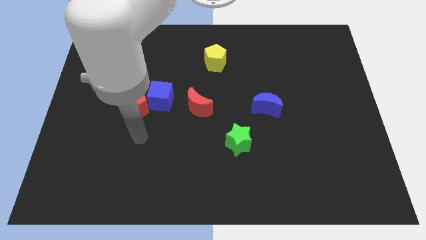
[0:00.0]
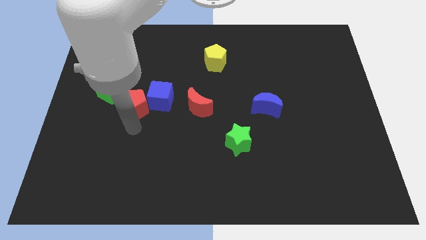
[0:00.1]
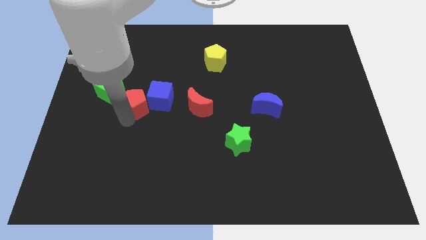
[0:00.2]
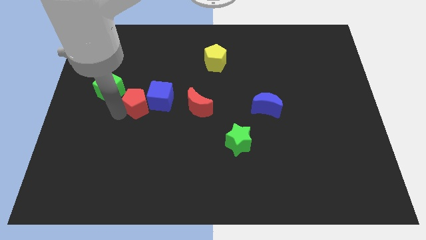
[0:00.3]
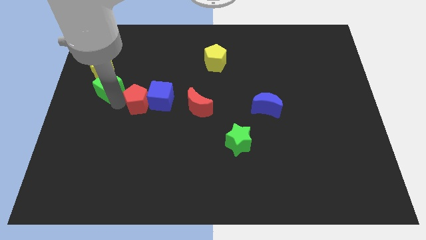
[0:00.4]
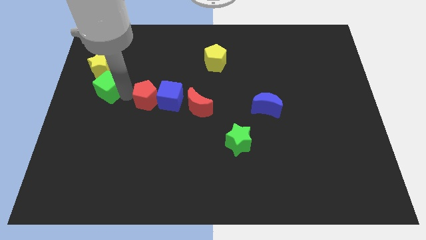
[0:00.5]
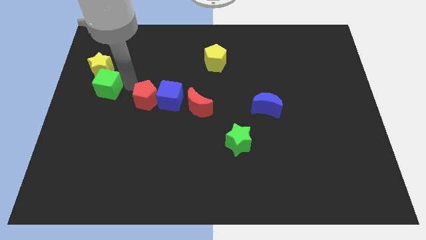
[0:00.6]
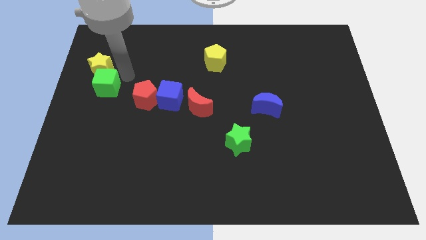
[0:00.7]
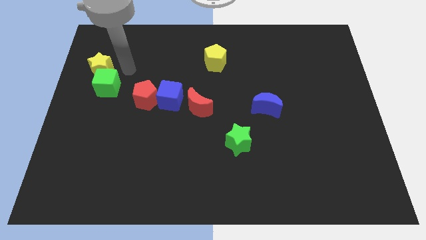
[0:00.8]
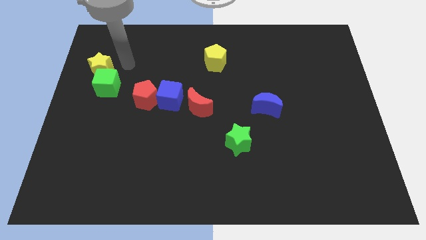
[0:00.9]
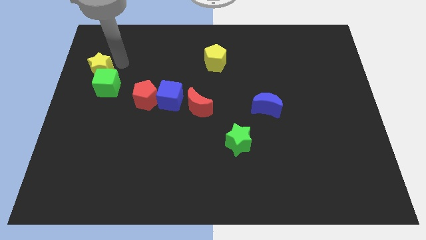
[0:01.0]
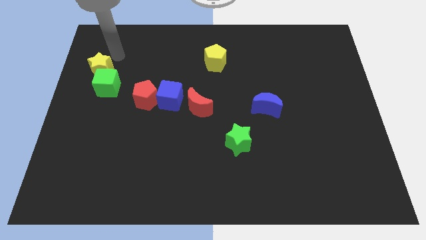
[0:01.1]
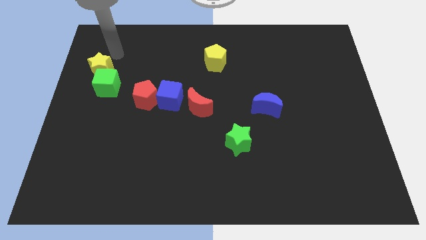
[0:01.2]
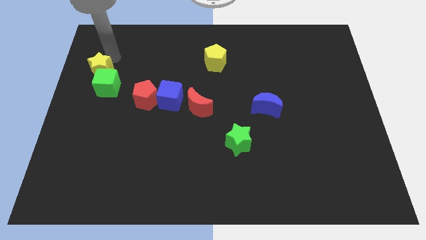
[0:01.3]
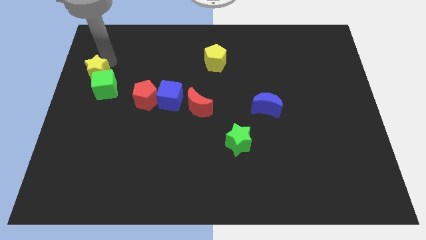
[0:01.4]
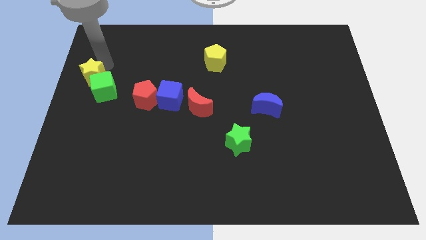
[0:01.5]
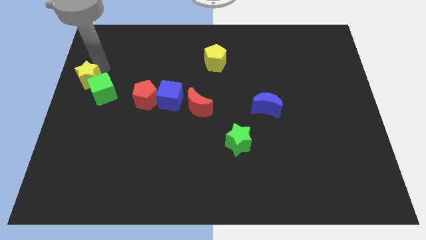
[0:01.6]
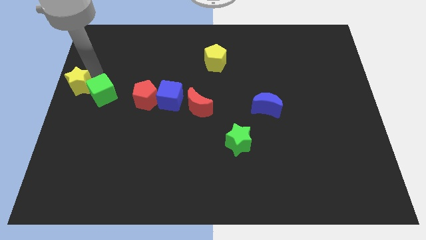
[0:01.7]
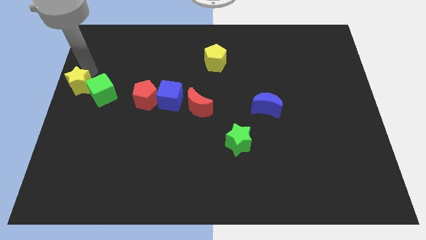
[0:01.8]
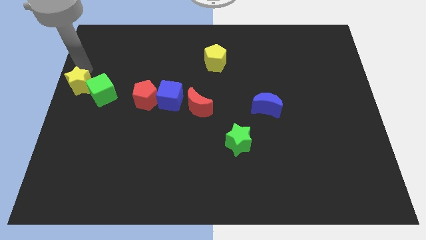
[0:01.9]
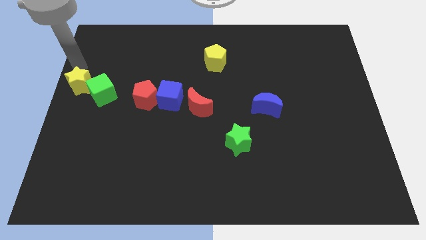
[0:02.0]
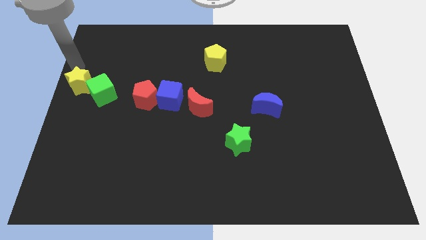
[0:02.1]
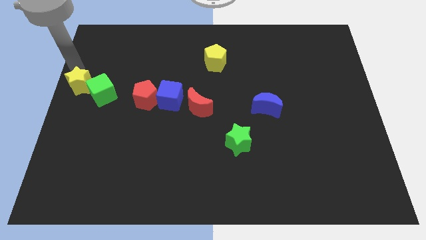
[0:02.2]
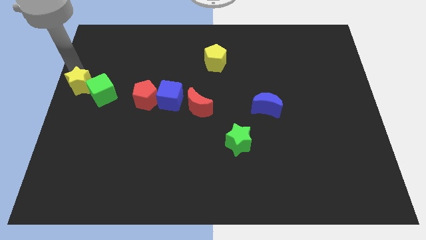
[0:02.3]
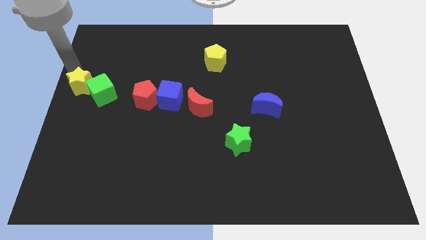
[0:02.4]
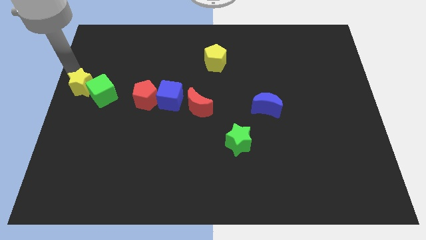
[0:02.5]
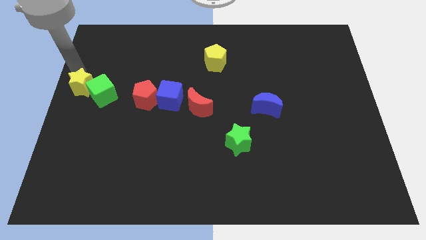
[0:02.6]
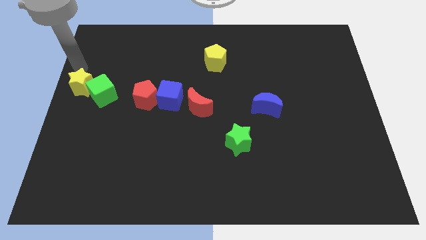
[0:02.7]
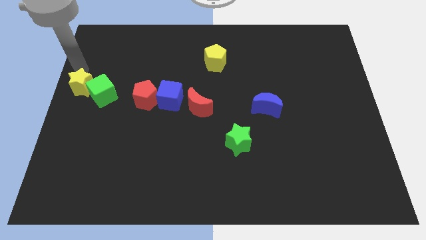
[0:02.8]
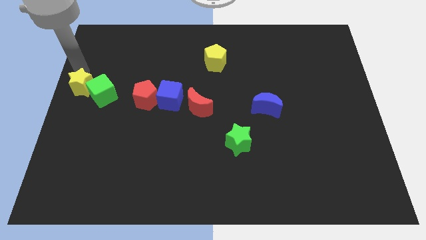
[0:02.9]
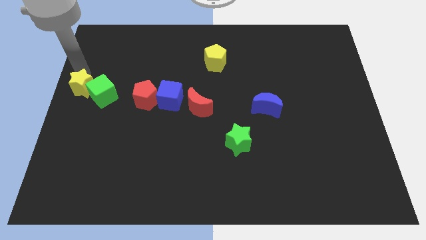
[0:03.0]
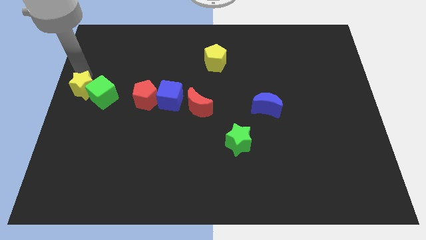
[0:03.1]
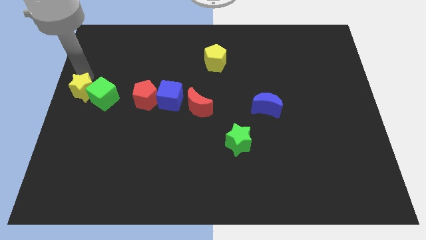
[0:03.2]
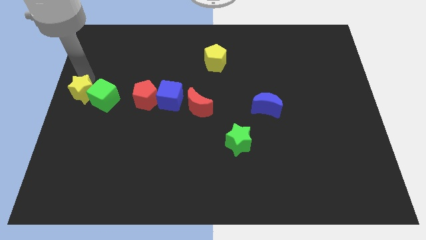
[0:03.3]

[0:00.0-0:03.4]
slightly slide the yellow star downwards

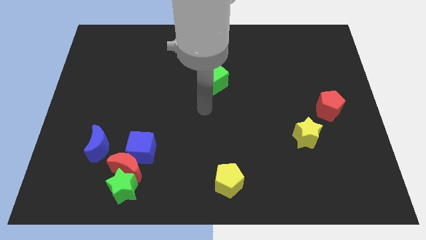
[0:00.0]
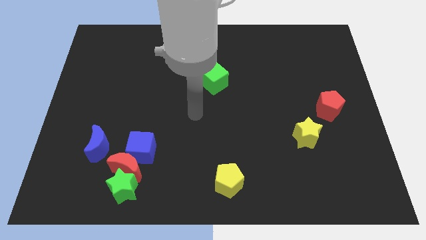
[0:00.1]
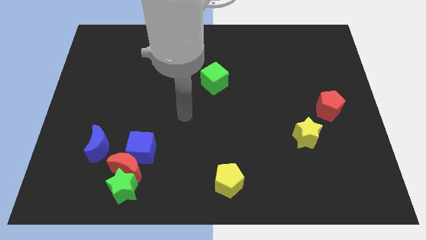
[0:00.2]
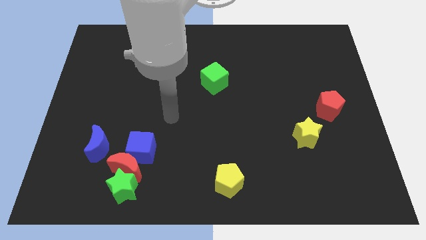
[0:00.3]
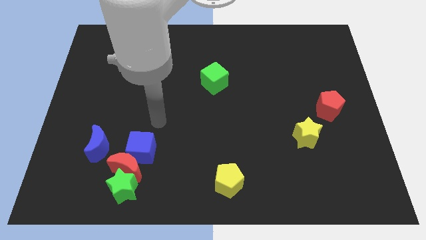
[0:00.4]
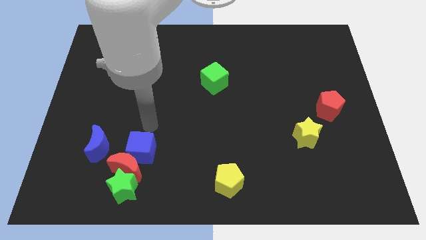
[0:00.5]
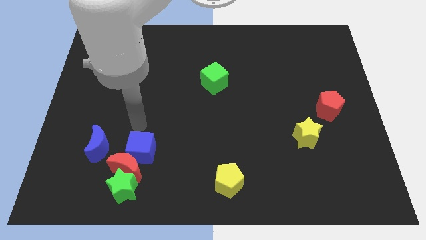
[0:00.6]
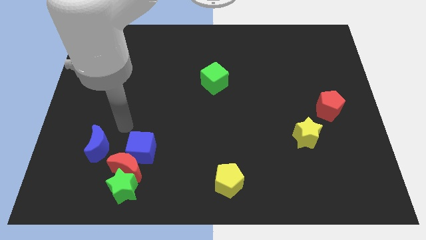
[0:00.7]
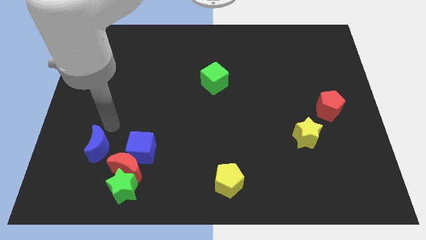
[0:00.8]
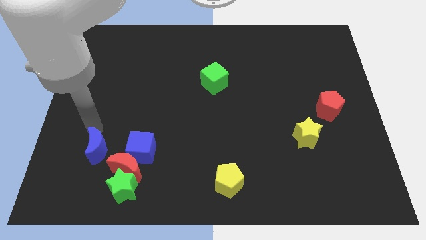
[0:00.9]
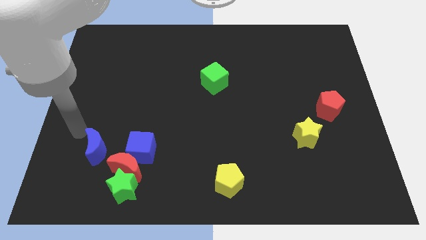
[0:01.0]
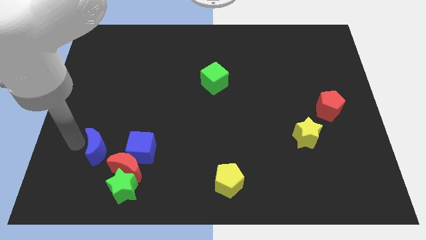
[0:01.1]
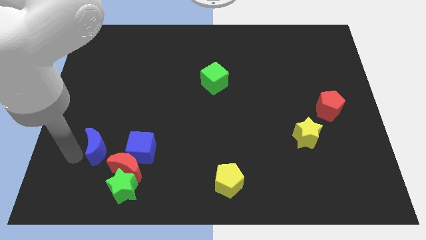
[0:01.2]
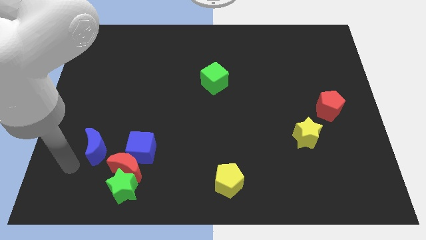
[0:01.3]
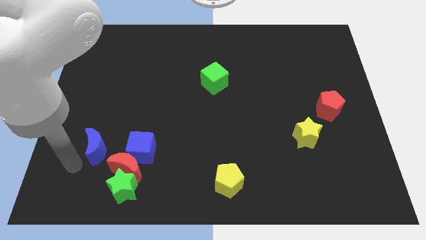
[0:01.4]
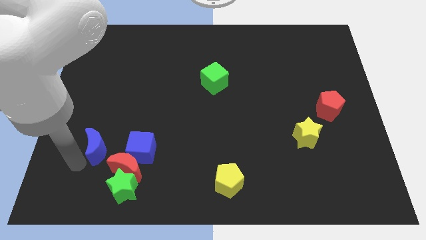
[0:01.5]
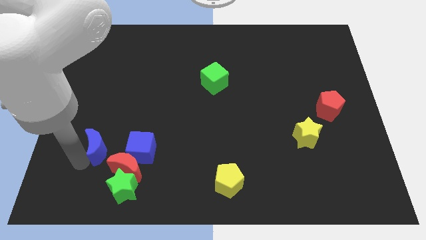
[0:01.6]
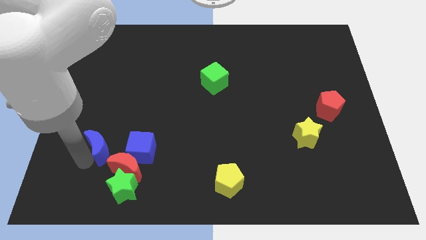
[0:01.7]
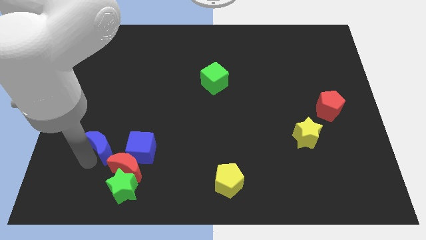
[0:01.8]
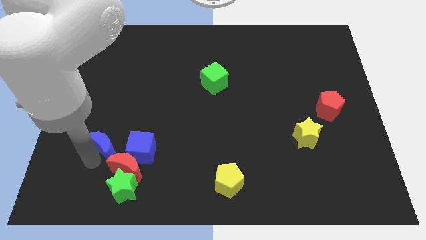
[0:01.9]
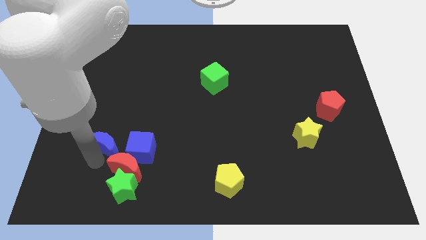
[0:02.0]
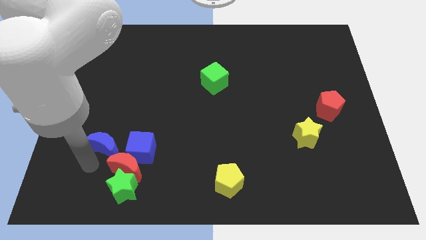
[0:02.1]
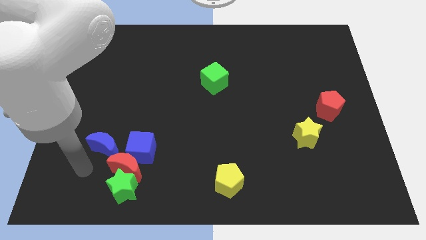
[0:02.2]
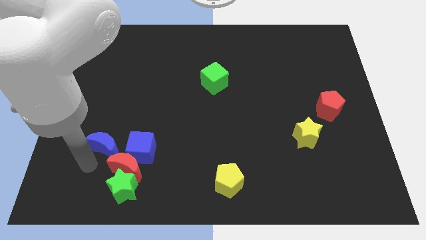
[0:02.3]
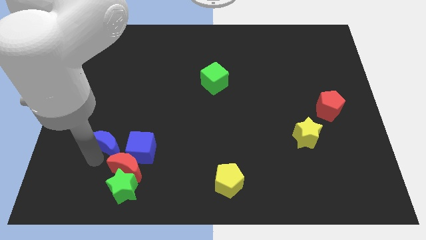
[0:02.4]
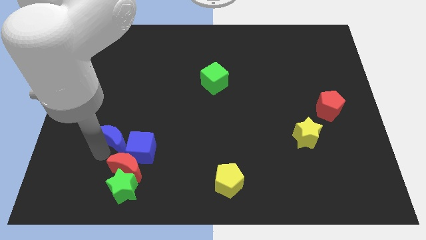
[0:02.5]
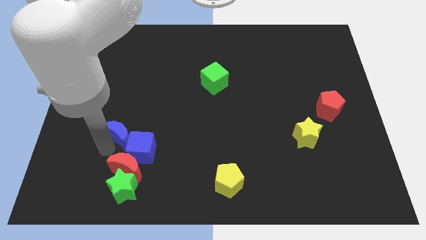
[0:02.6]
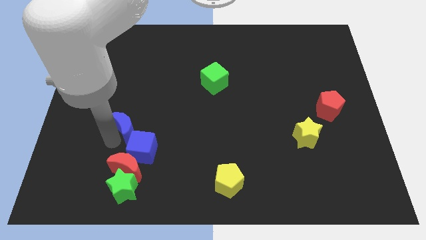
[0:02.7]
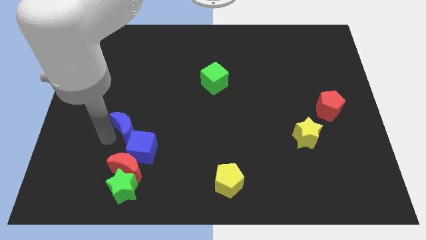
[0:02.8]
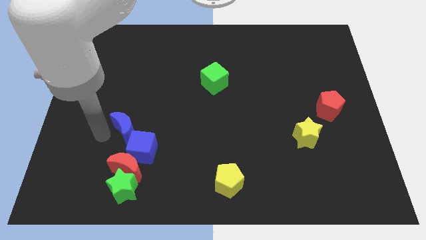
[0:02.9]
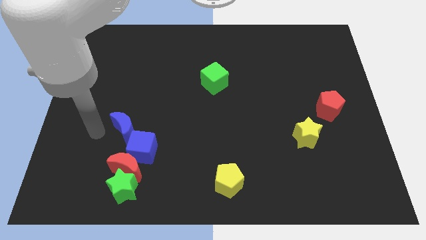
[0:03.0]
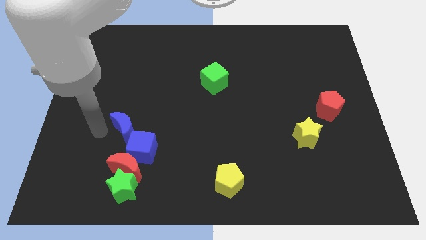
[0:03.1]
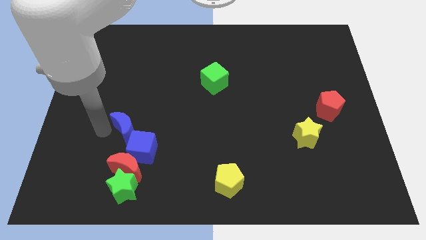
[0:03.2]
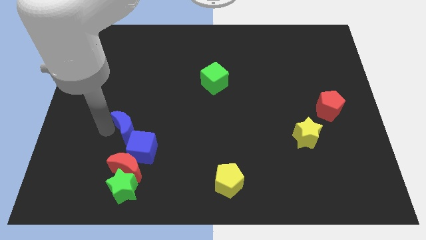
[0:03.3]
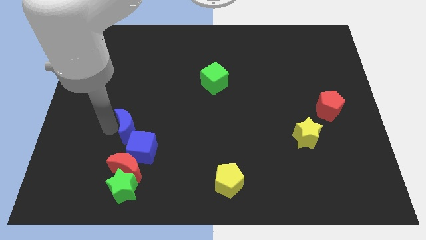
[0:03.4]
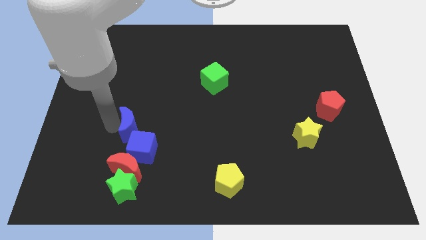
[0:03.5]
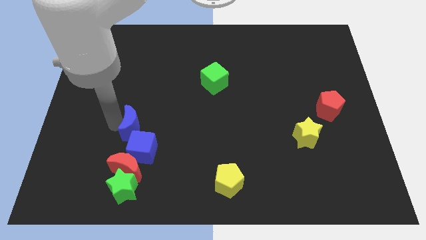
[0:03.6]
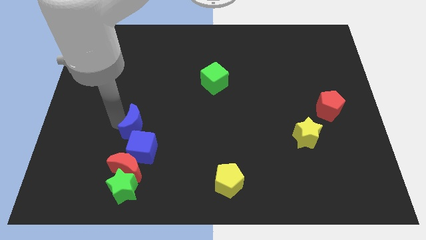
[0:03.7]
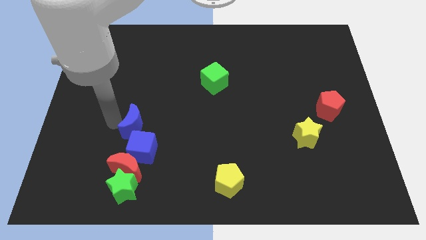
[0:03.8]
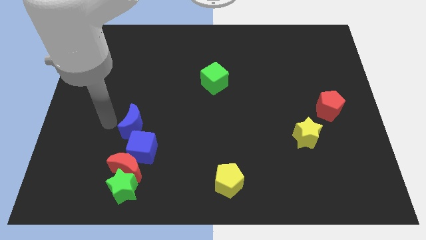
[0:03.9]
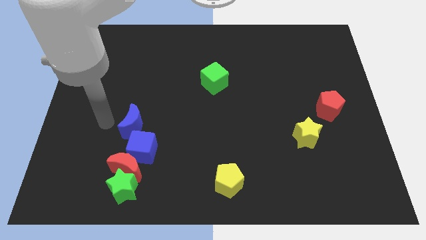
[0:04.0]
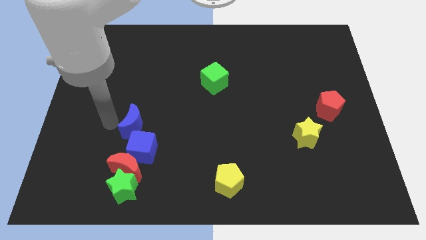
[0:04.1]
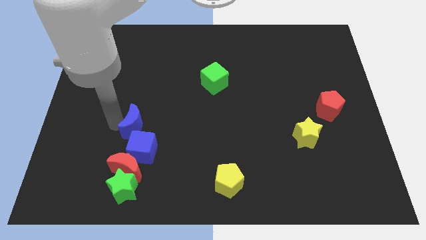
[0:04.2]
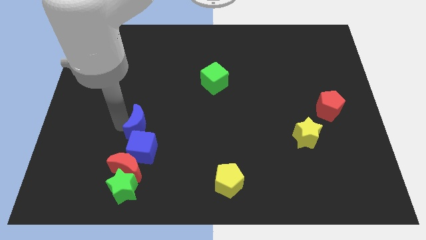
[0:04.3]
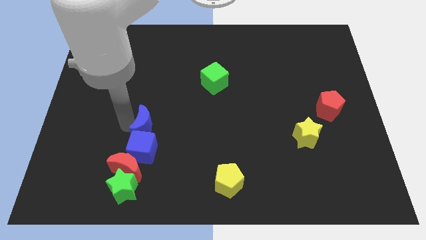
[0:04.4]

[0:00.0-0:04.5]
slightly push the blue moon right
